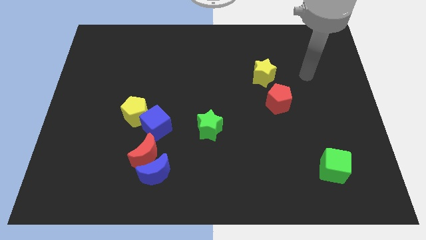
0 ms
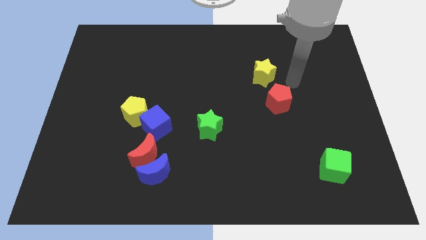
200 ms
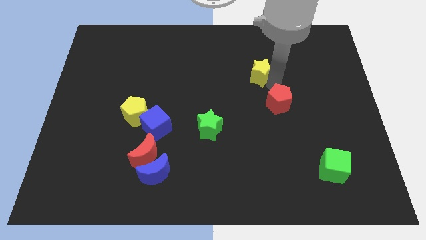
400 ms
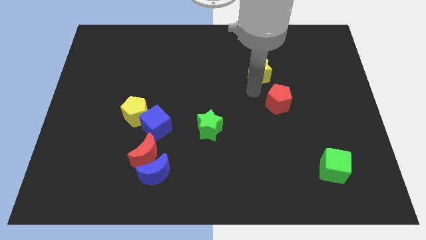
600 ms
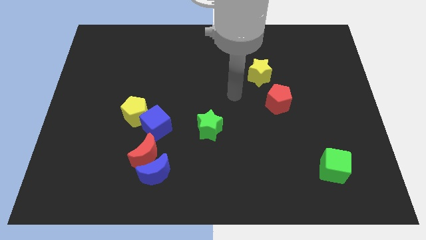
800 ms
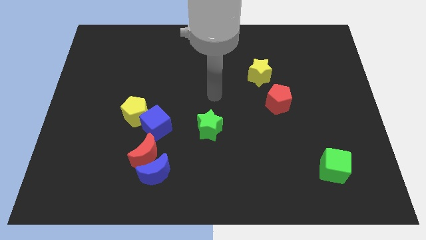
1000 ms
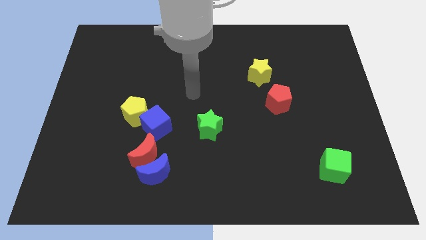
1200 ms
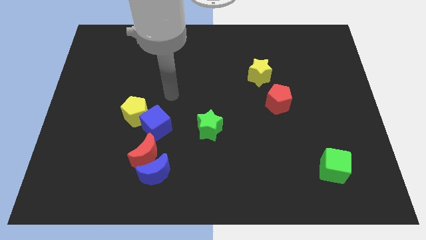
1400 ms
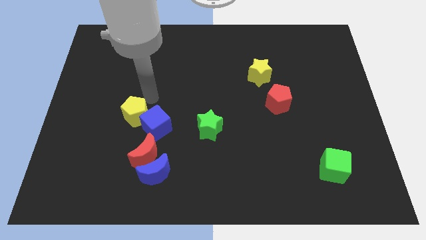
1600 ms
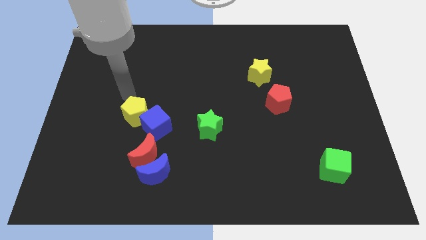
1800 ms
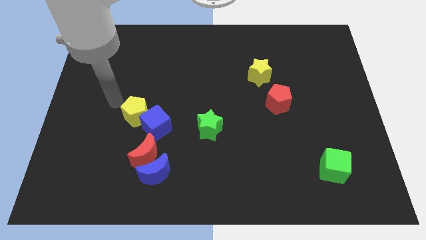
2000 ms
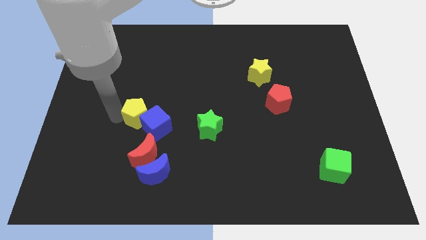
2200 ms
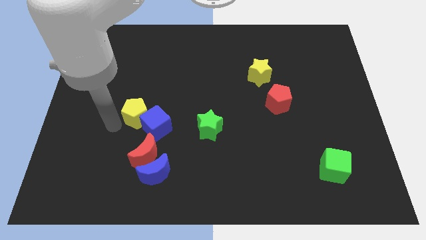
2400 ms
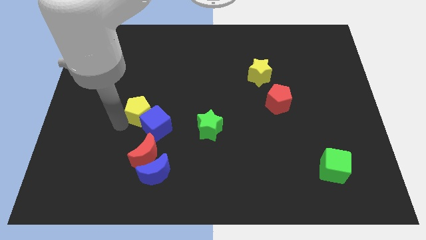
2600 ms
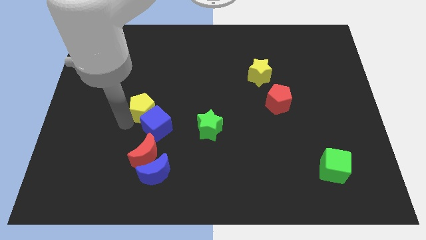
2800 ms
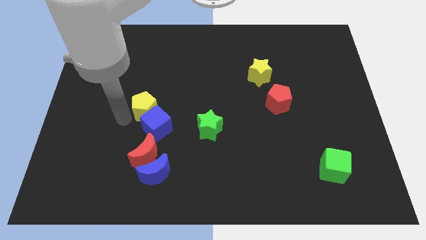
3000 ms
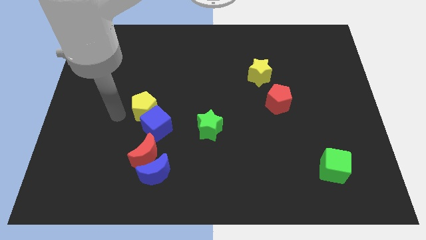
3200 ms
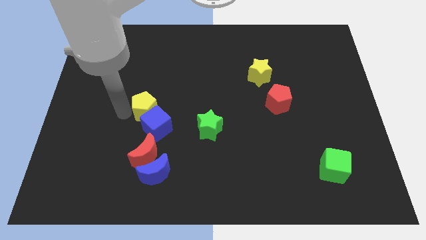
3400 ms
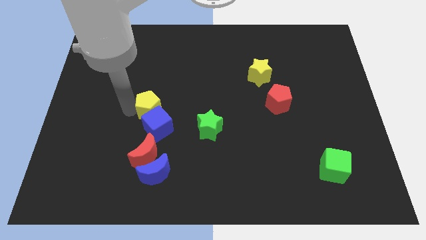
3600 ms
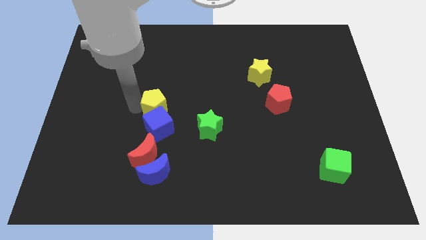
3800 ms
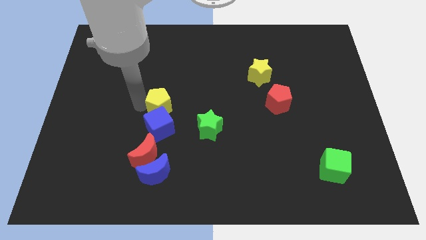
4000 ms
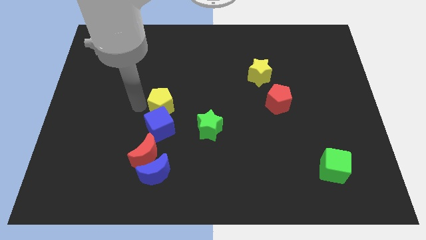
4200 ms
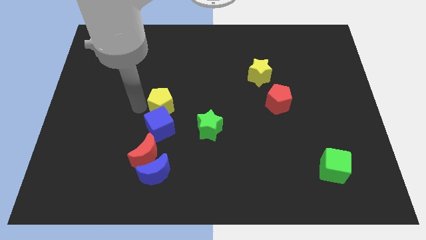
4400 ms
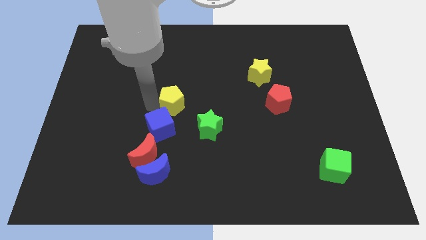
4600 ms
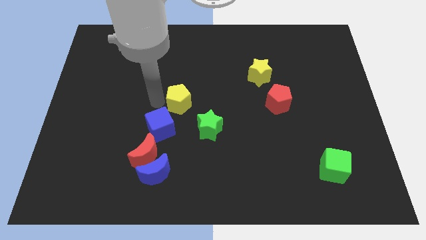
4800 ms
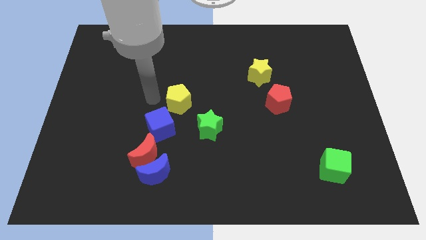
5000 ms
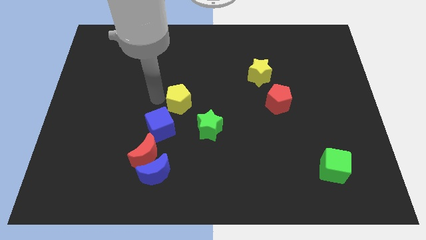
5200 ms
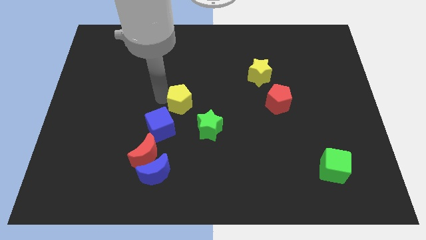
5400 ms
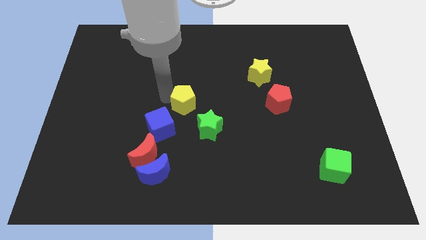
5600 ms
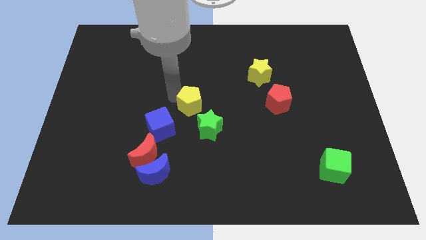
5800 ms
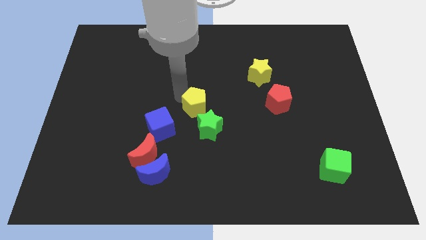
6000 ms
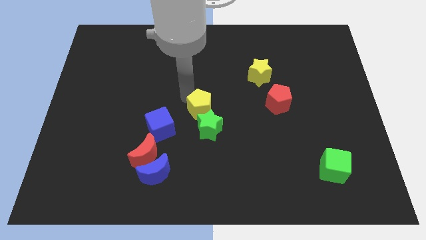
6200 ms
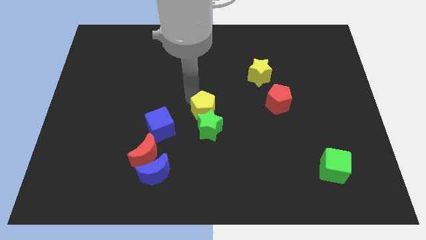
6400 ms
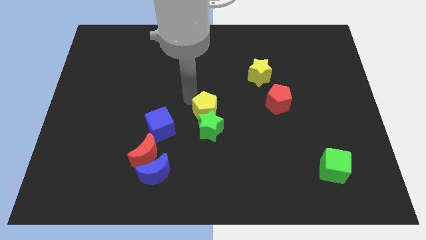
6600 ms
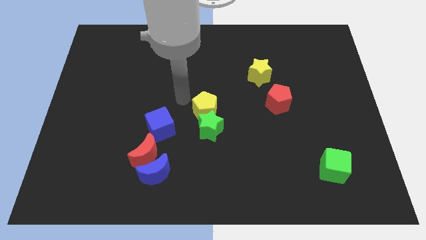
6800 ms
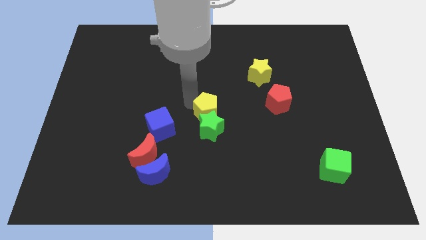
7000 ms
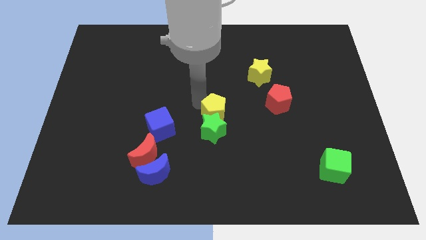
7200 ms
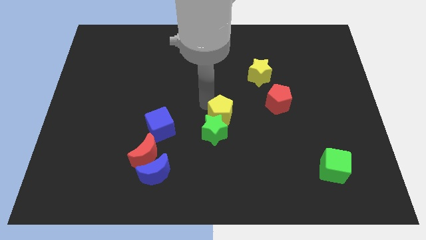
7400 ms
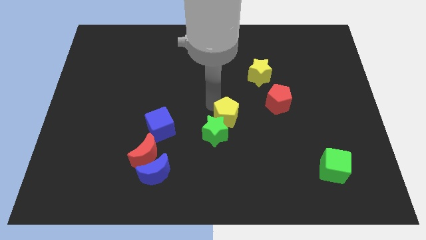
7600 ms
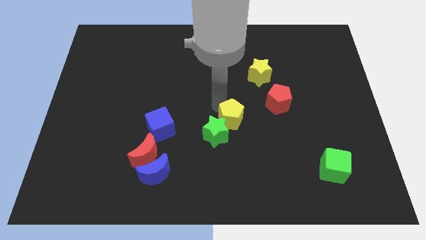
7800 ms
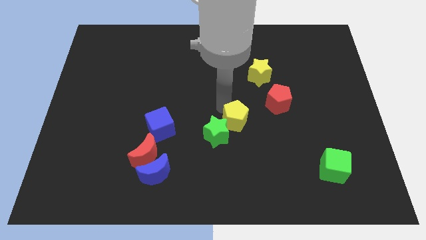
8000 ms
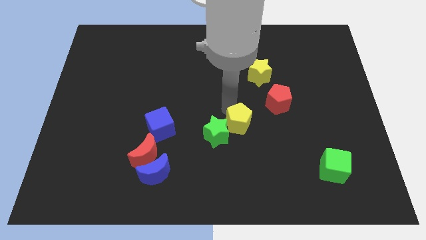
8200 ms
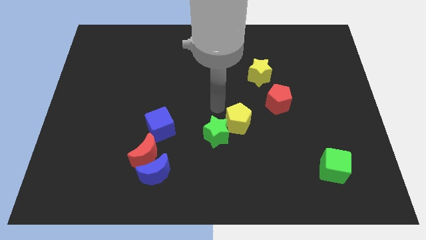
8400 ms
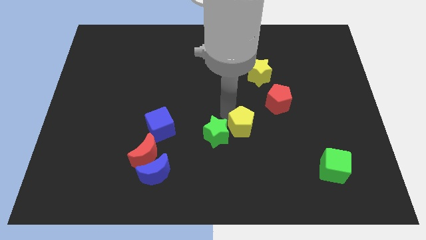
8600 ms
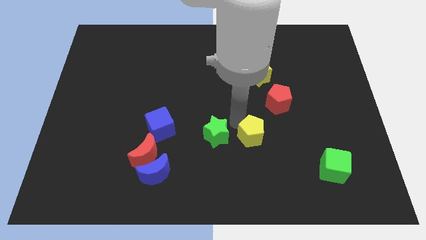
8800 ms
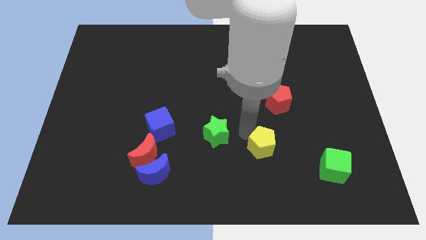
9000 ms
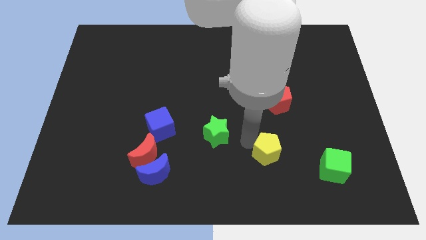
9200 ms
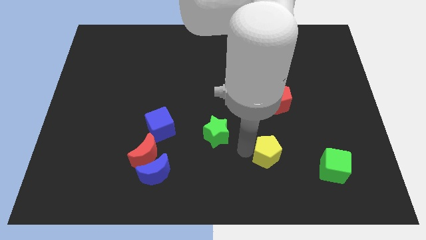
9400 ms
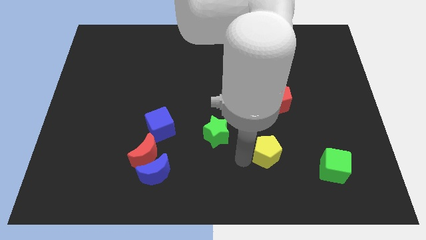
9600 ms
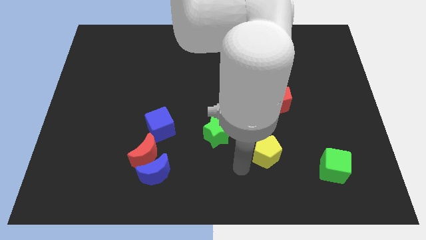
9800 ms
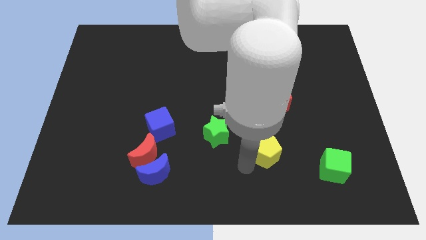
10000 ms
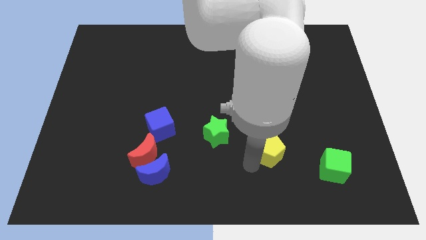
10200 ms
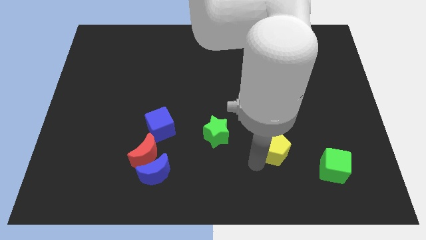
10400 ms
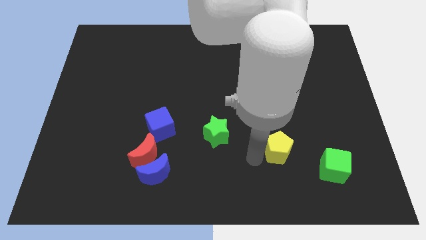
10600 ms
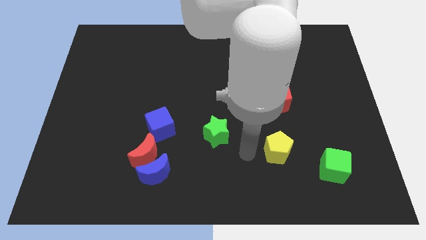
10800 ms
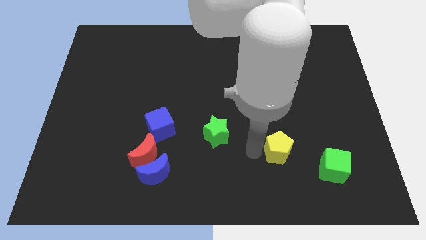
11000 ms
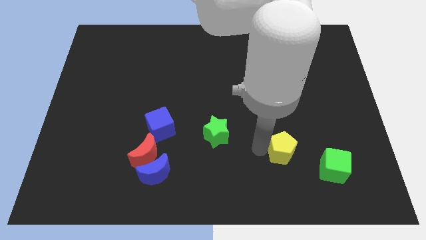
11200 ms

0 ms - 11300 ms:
slide the yellow pentagon to the top left of the green cube
